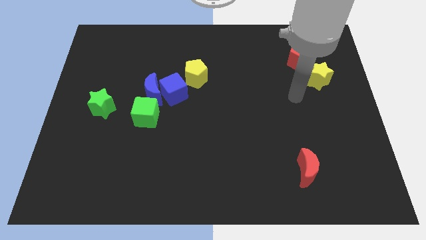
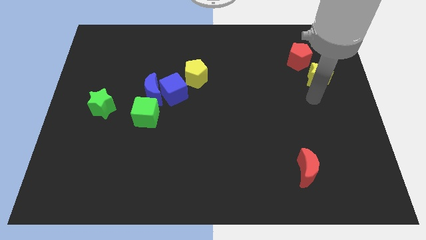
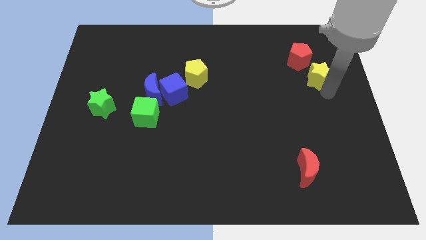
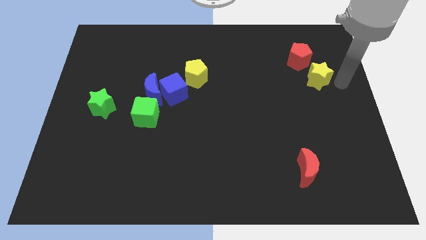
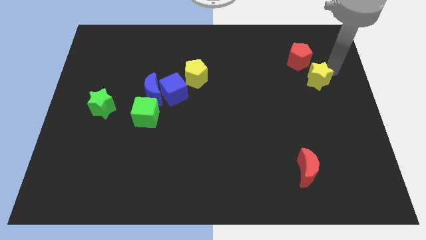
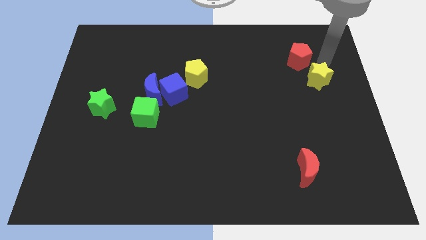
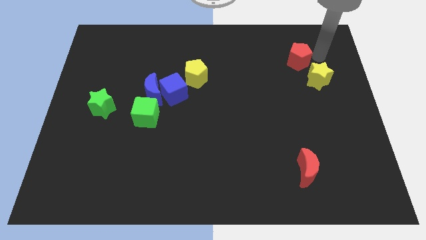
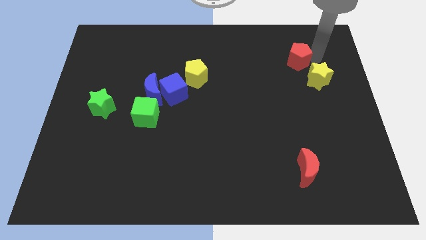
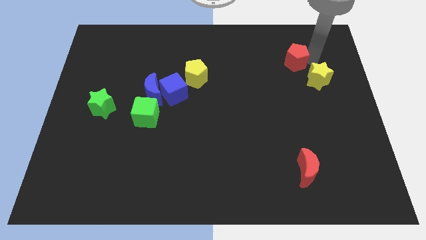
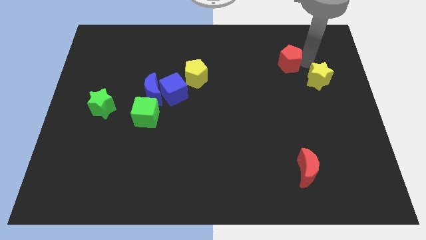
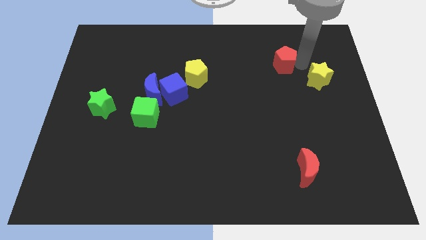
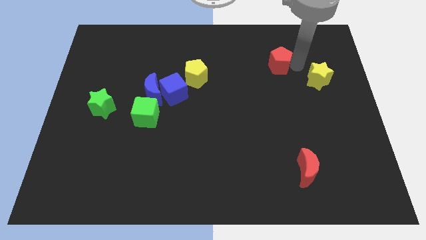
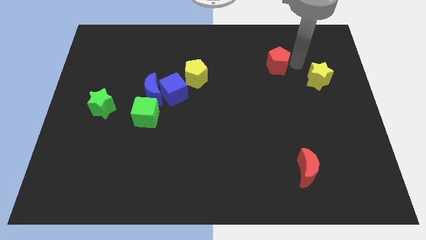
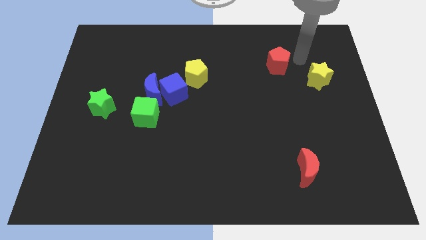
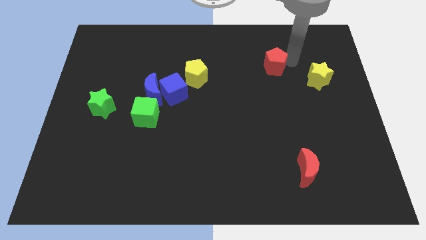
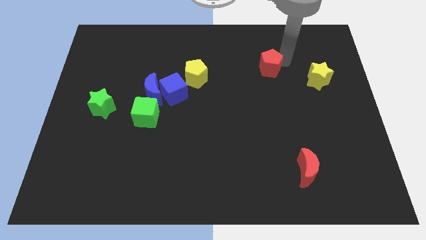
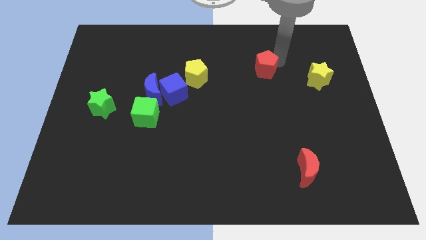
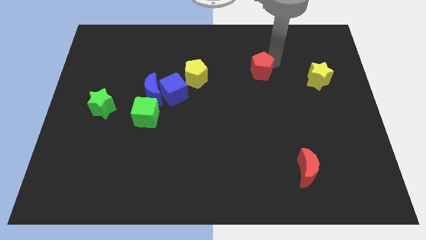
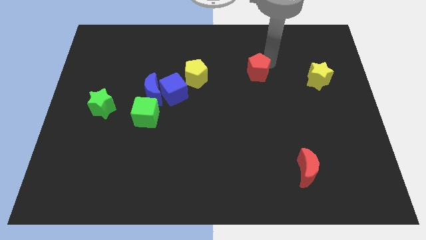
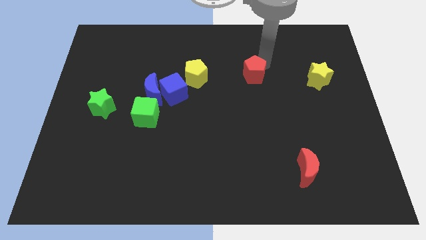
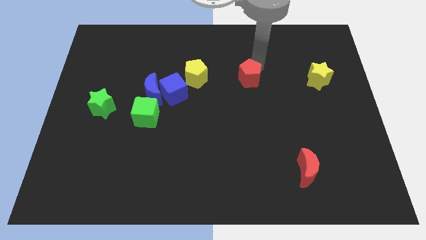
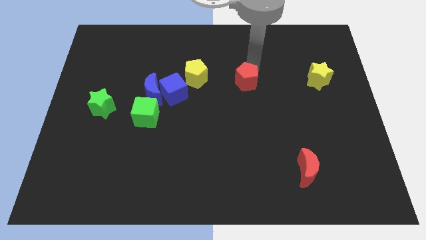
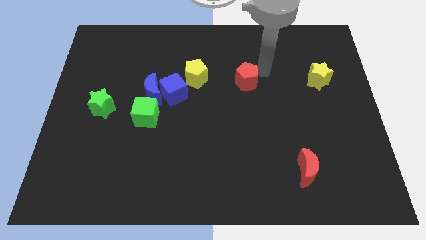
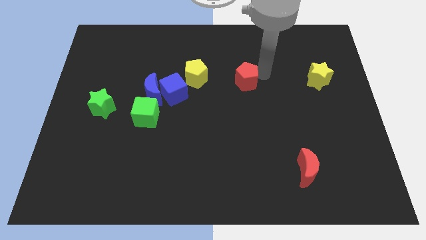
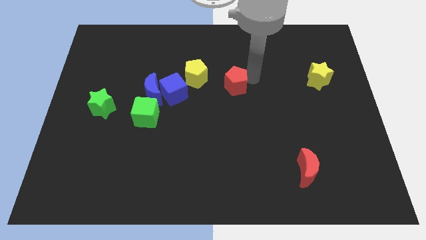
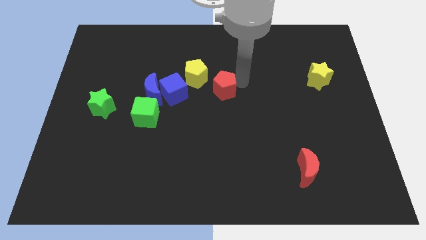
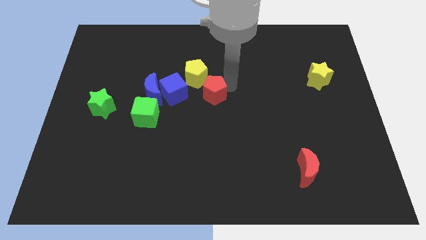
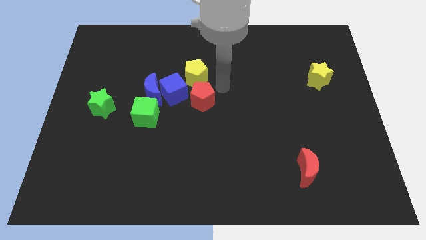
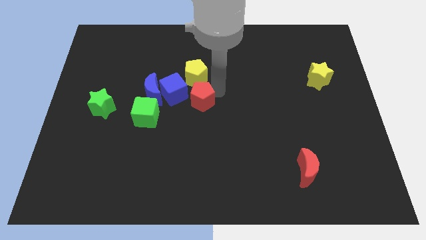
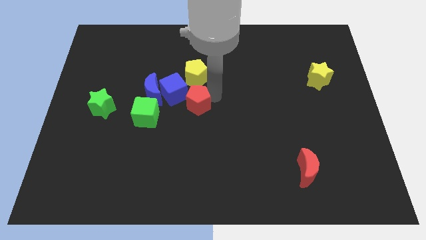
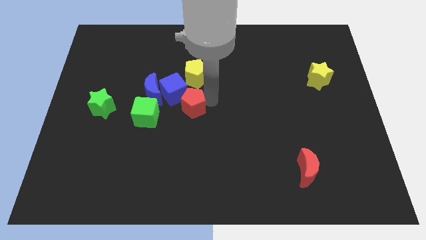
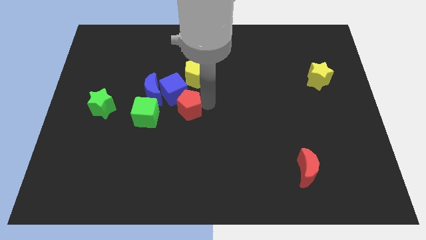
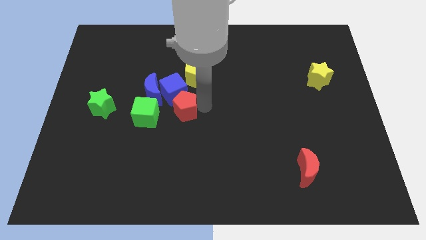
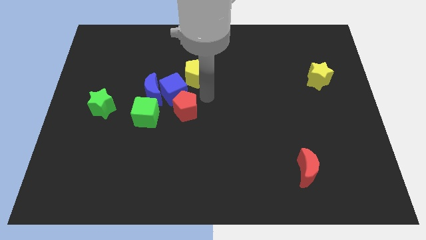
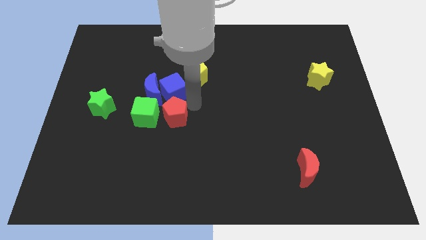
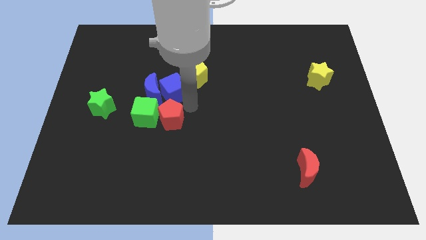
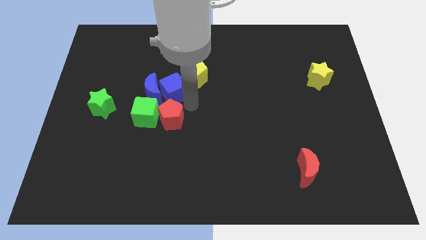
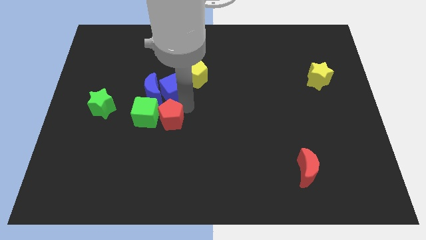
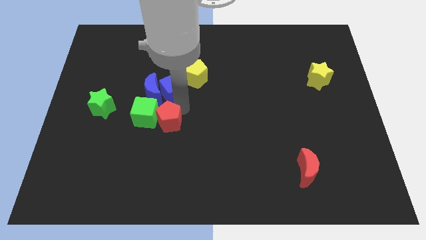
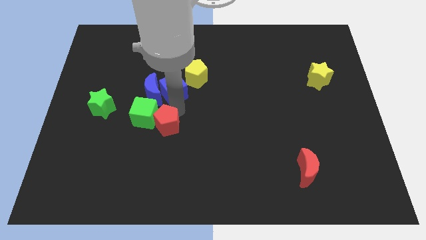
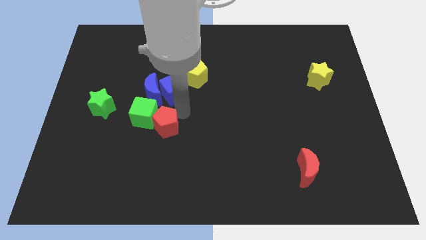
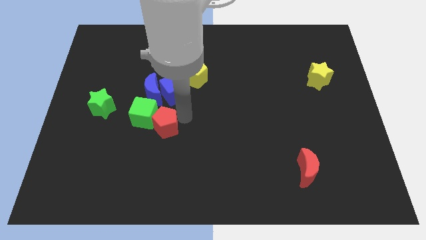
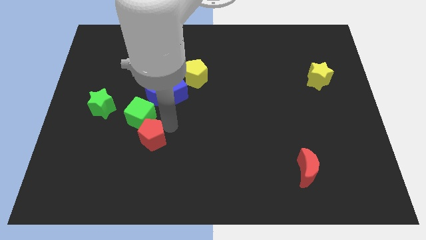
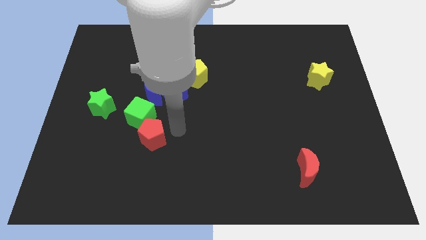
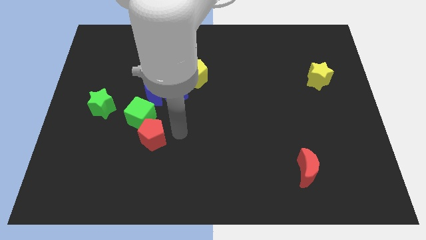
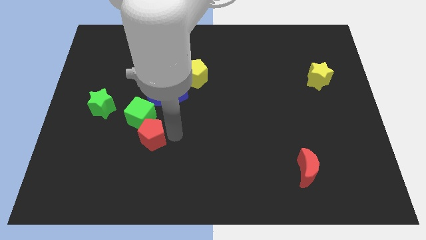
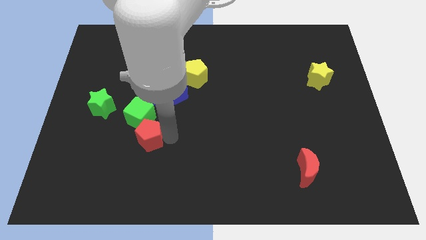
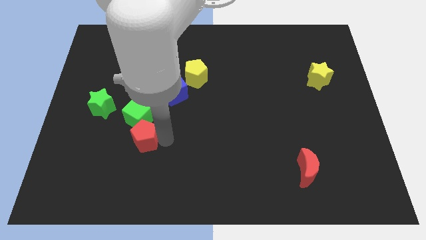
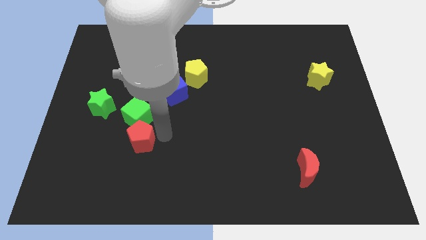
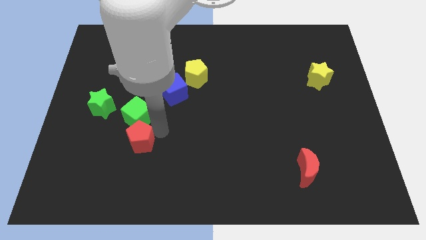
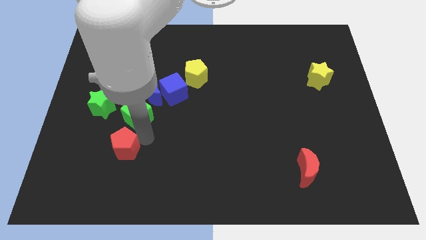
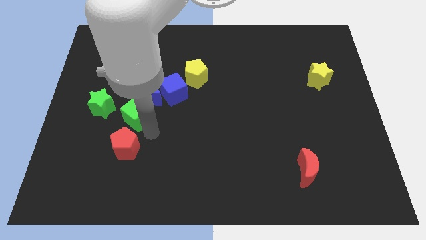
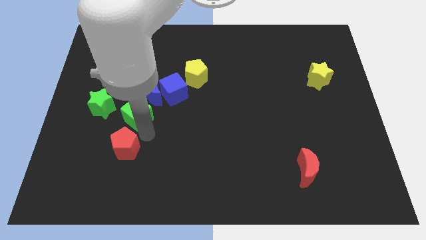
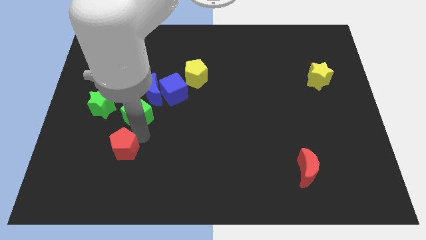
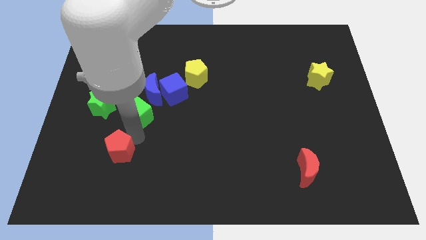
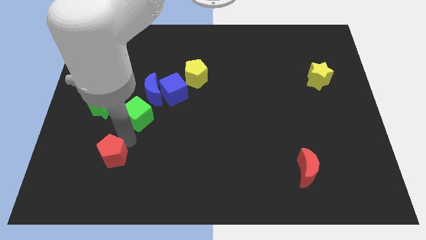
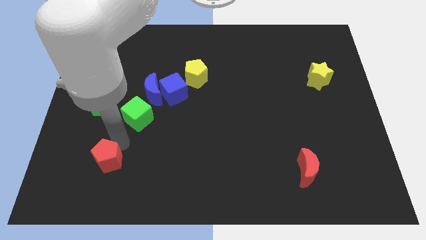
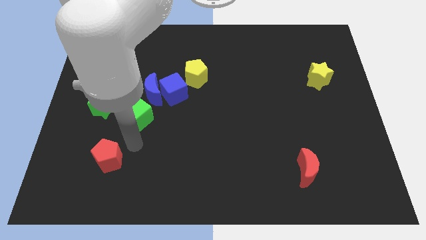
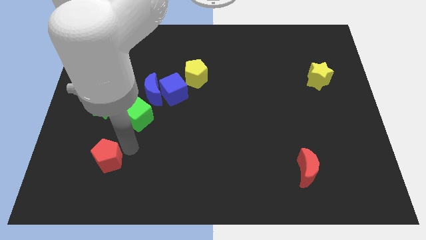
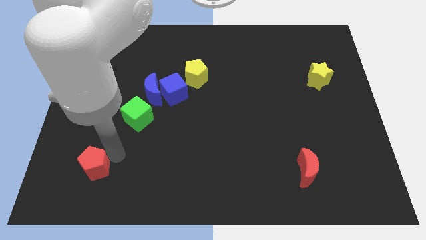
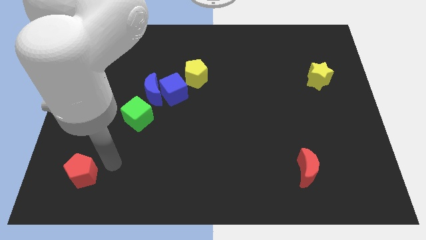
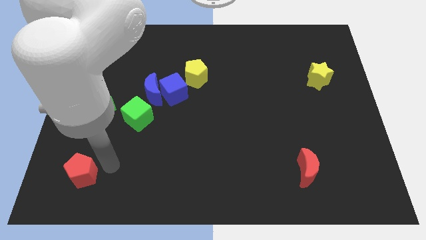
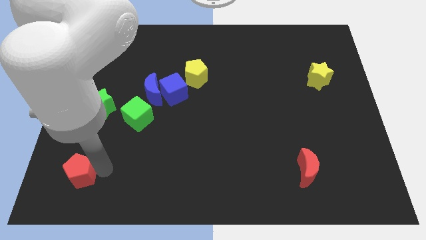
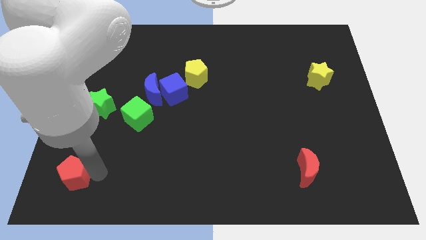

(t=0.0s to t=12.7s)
put the red pentagon to the bottom left

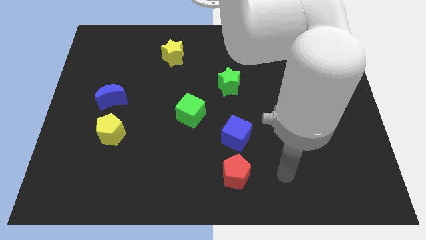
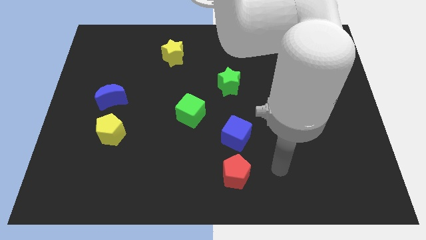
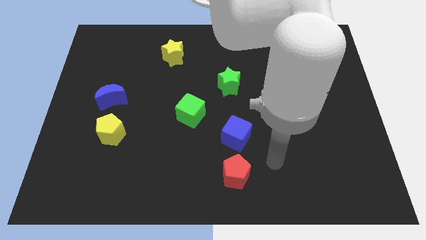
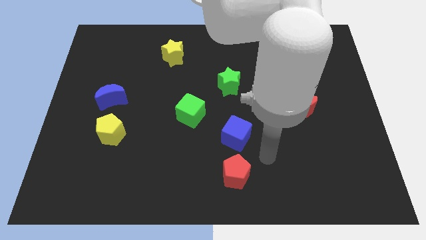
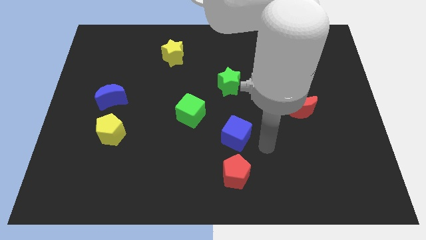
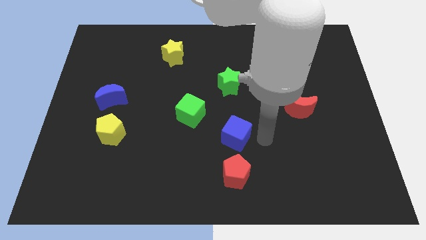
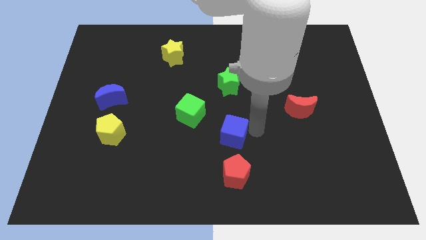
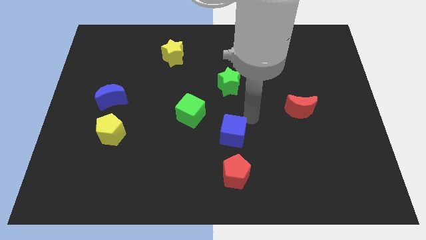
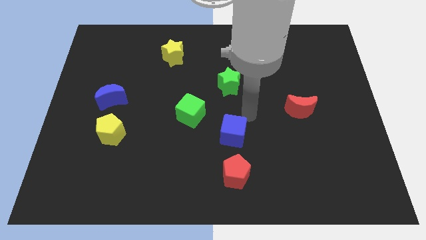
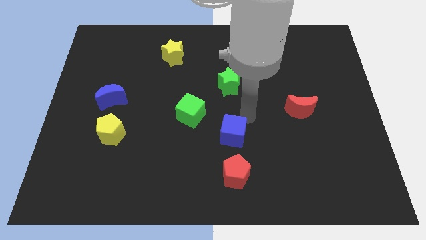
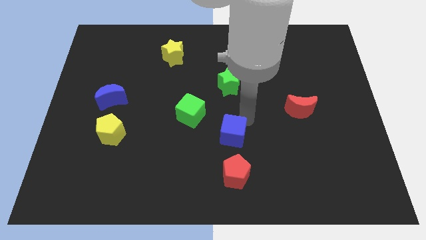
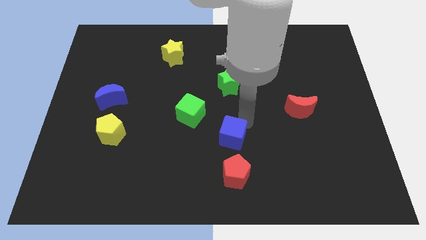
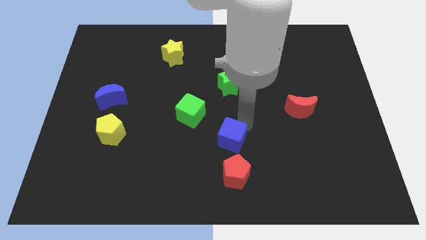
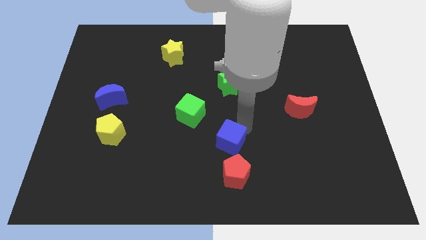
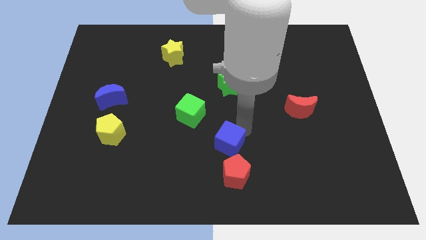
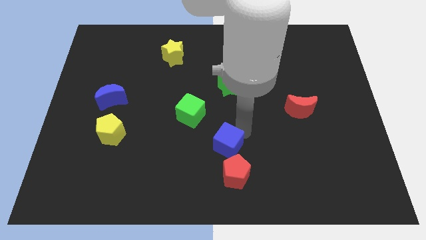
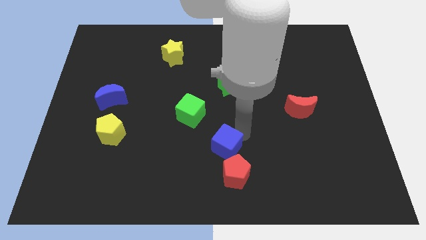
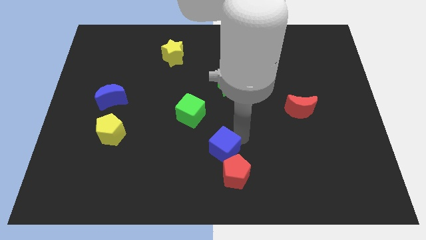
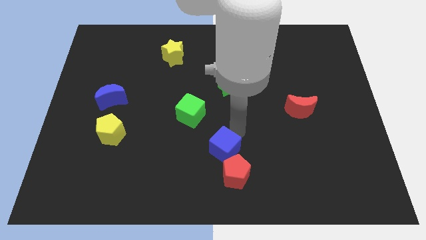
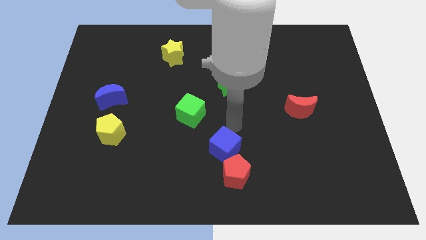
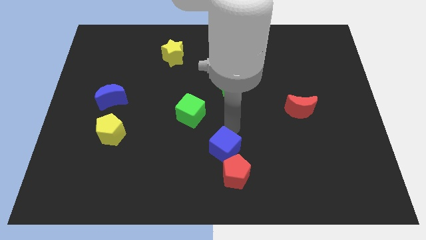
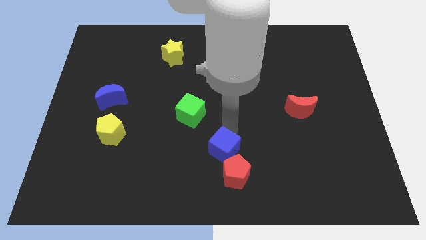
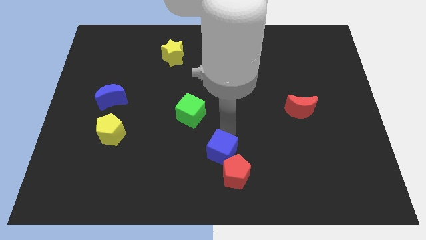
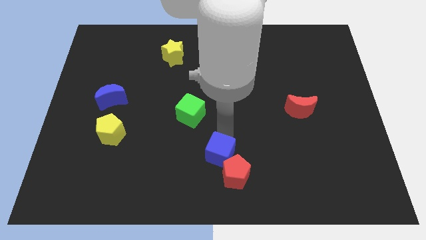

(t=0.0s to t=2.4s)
slide the blue cube to the bottom side
